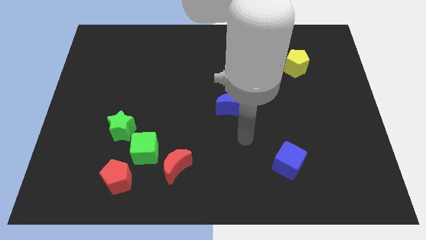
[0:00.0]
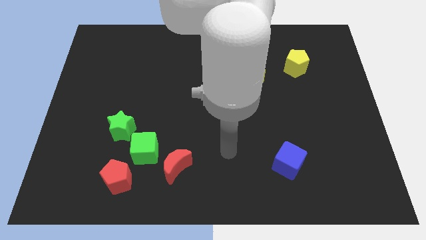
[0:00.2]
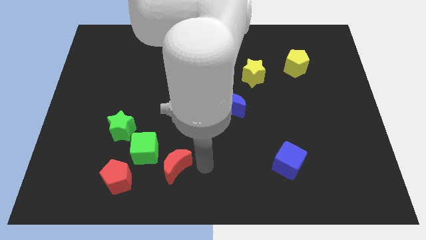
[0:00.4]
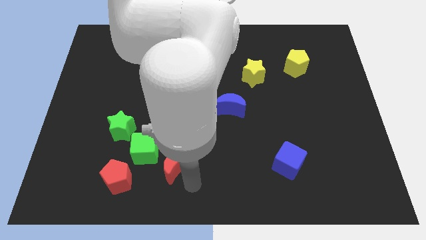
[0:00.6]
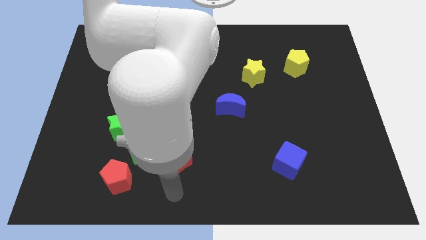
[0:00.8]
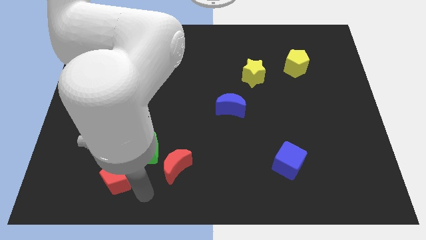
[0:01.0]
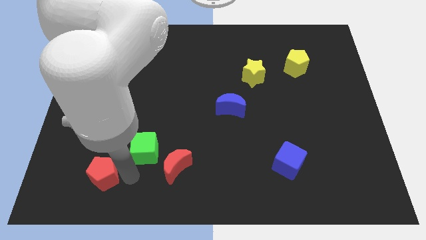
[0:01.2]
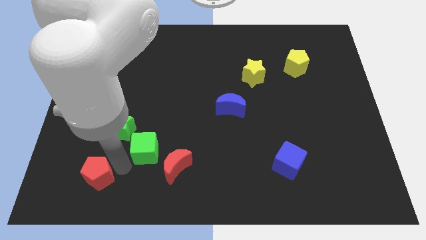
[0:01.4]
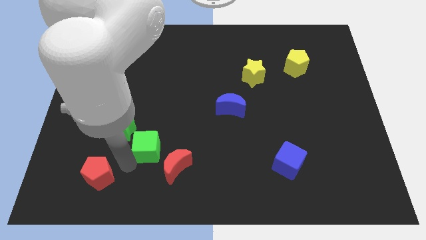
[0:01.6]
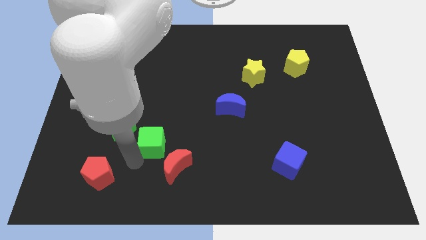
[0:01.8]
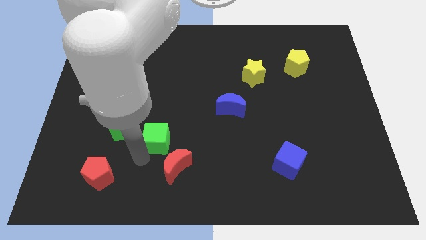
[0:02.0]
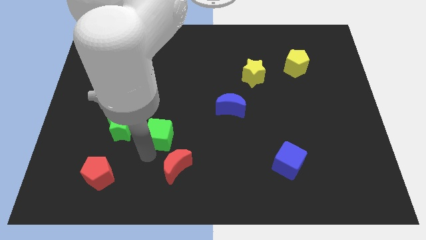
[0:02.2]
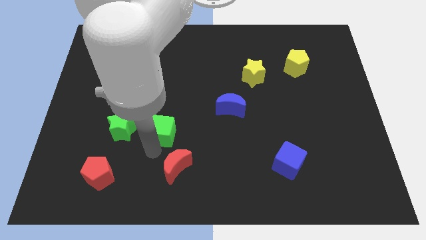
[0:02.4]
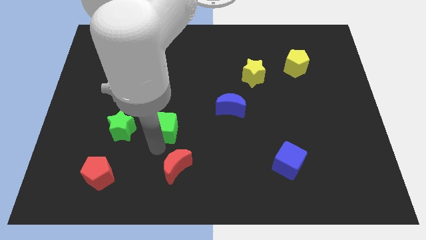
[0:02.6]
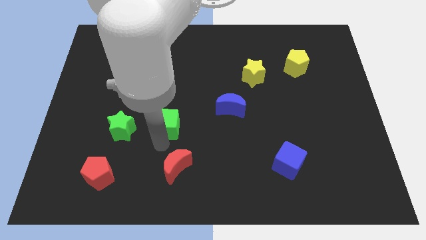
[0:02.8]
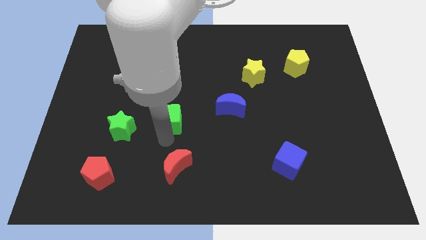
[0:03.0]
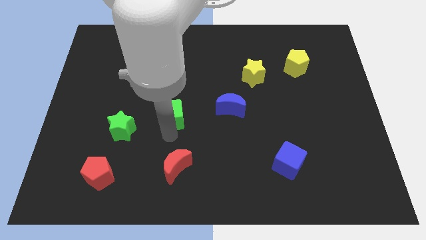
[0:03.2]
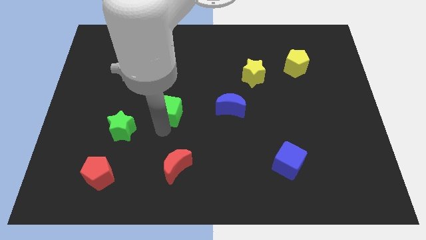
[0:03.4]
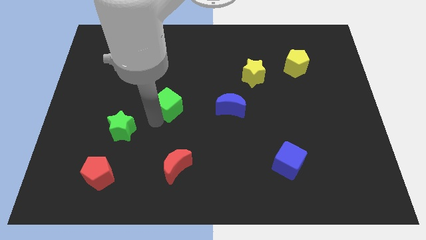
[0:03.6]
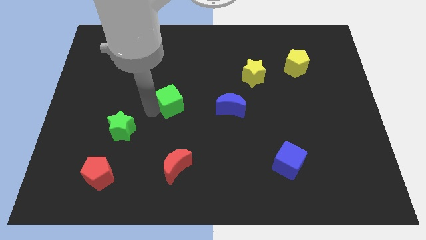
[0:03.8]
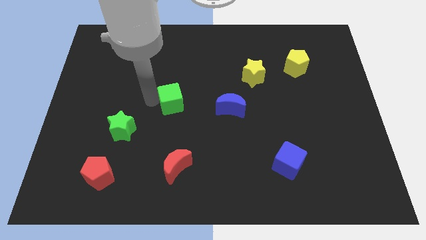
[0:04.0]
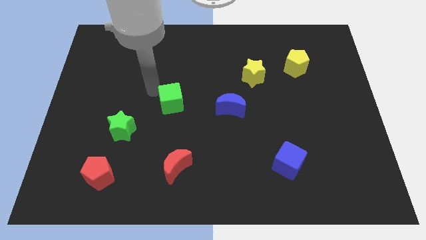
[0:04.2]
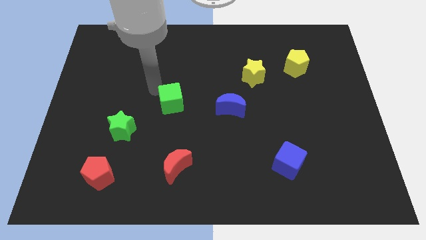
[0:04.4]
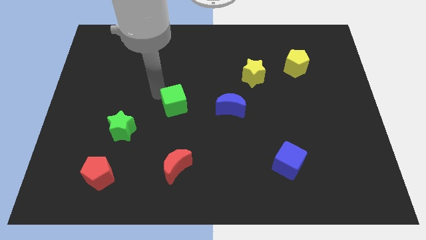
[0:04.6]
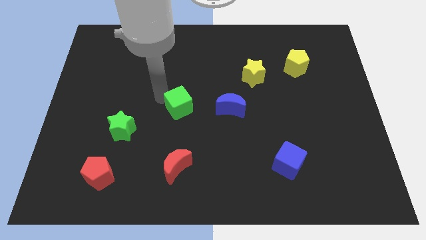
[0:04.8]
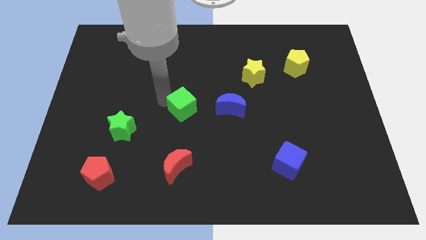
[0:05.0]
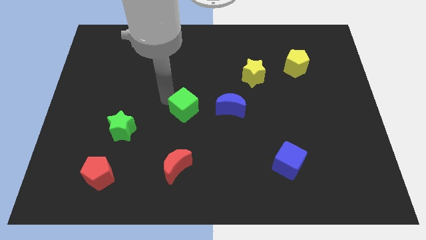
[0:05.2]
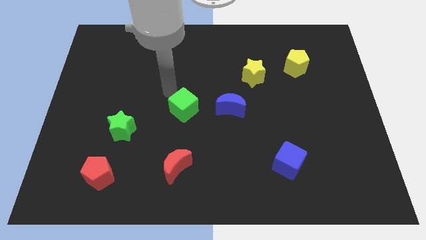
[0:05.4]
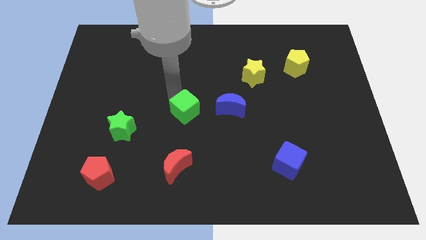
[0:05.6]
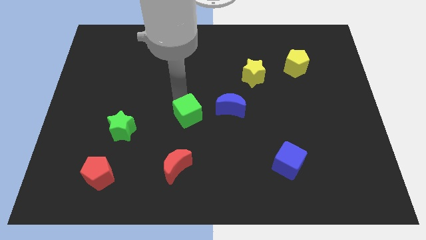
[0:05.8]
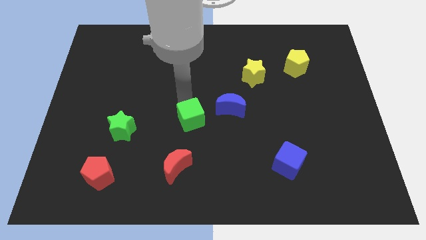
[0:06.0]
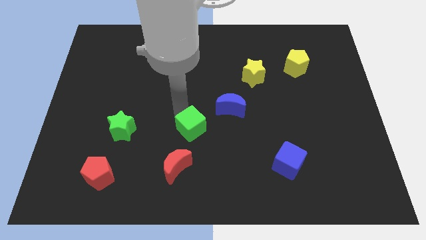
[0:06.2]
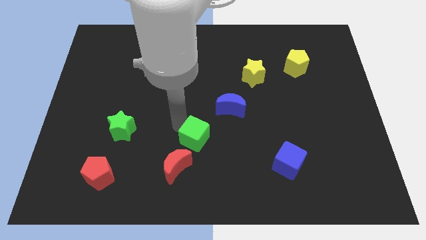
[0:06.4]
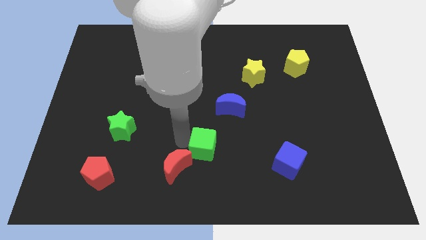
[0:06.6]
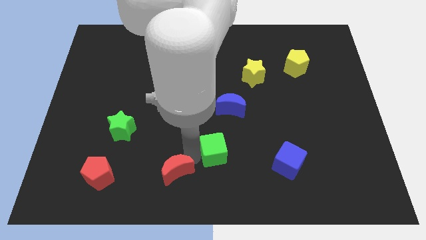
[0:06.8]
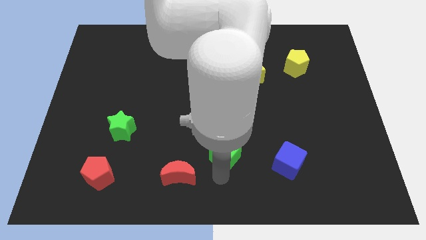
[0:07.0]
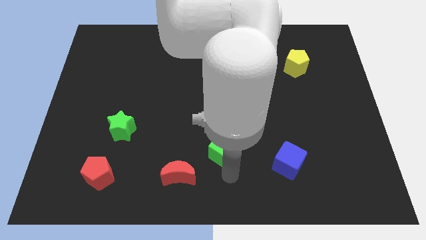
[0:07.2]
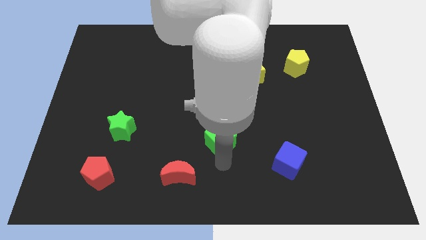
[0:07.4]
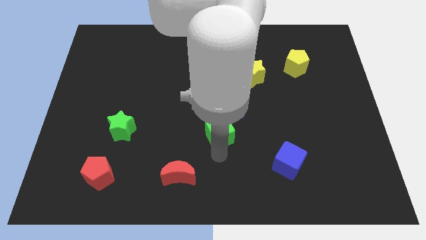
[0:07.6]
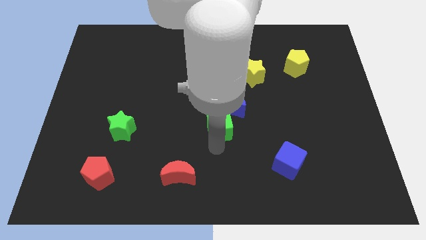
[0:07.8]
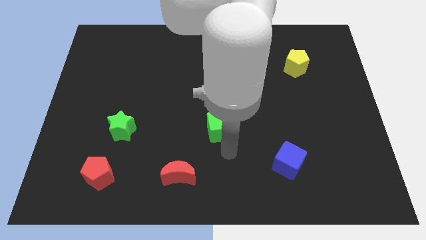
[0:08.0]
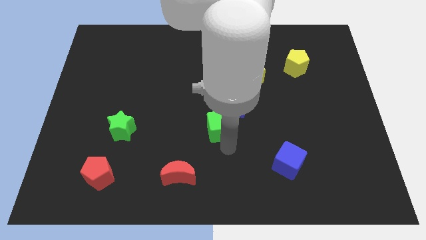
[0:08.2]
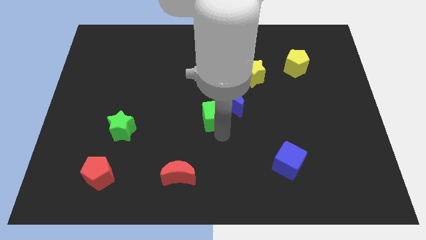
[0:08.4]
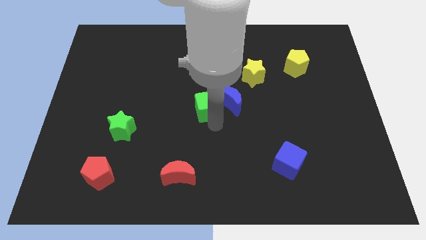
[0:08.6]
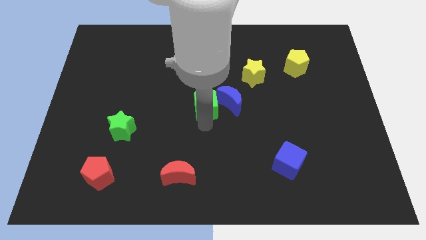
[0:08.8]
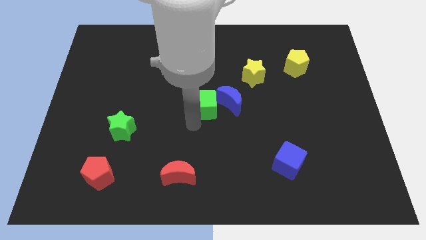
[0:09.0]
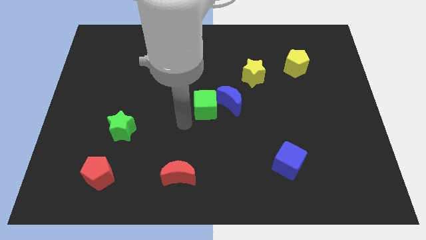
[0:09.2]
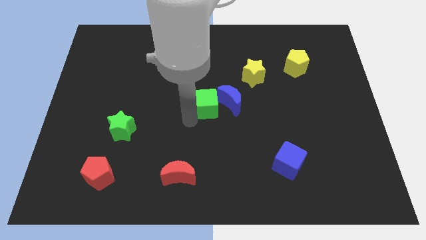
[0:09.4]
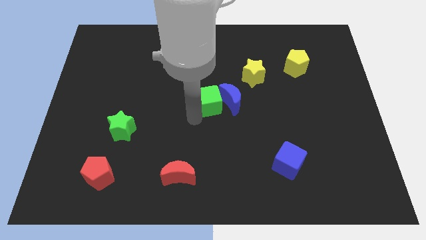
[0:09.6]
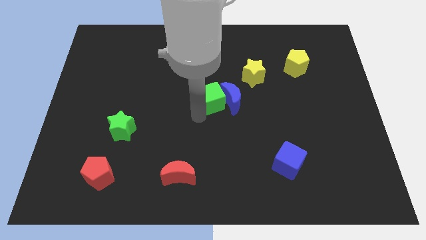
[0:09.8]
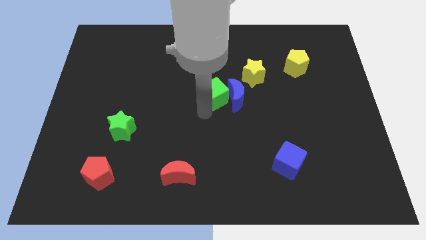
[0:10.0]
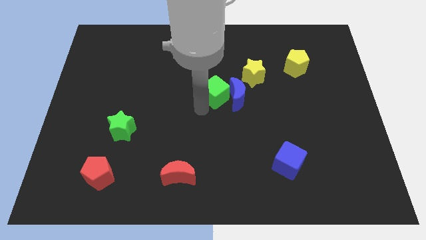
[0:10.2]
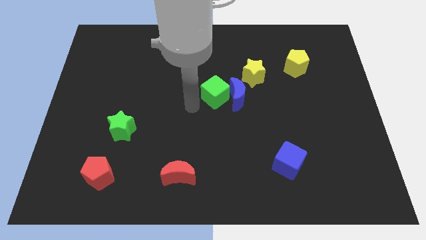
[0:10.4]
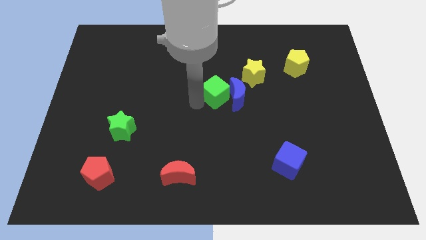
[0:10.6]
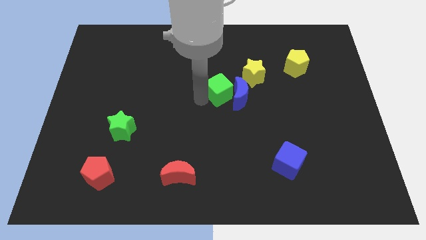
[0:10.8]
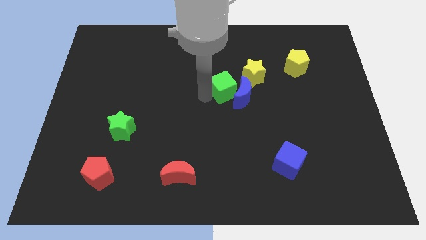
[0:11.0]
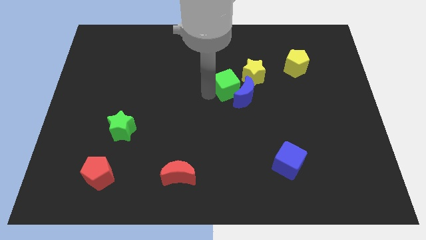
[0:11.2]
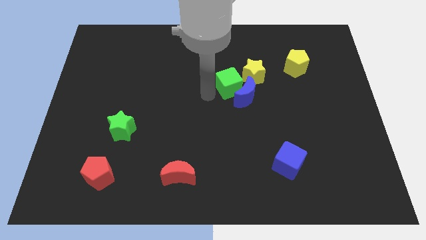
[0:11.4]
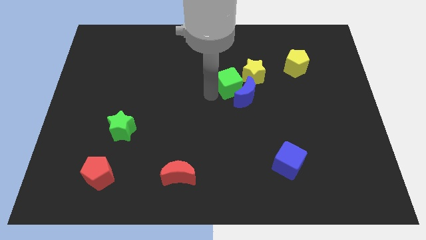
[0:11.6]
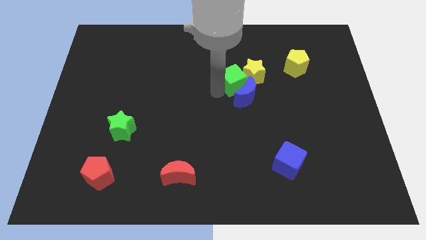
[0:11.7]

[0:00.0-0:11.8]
put the green cube next to the yellow star

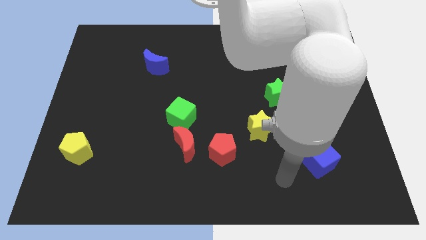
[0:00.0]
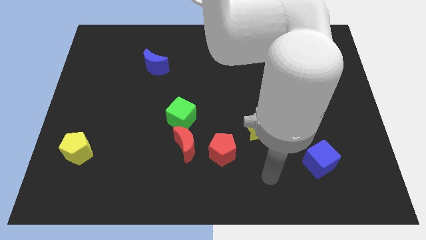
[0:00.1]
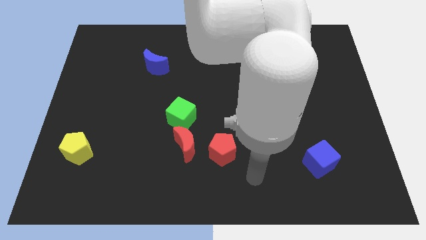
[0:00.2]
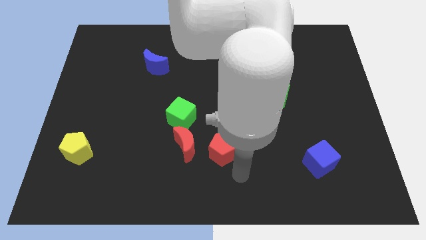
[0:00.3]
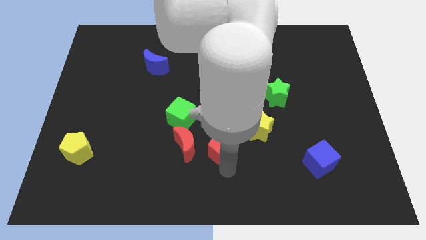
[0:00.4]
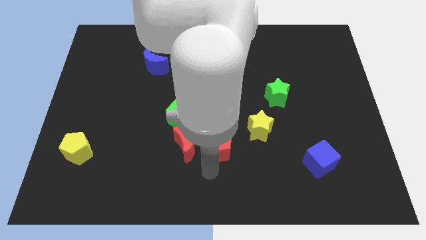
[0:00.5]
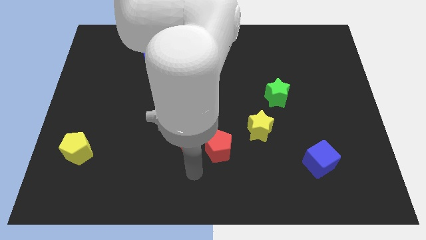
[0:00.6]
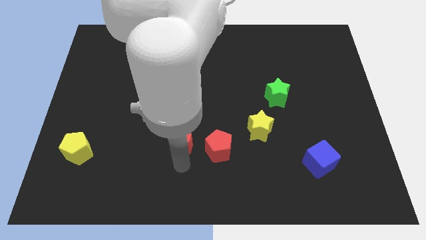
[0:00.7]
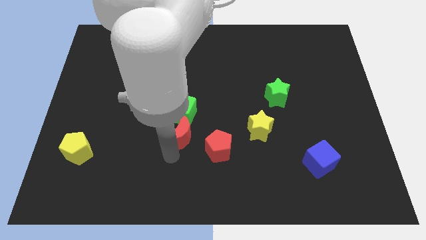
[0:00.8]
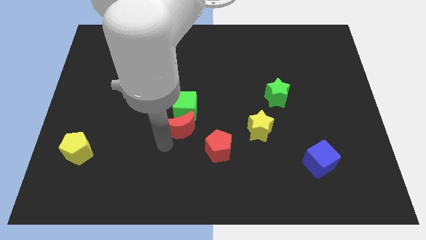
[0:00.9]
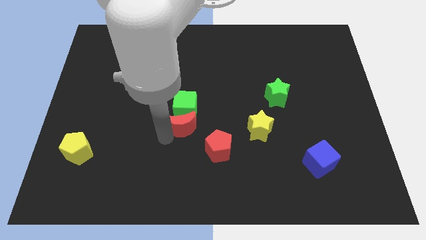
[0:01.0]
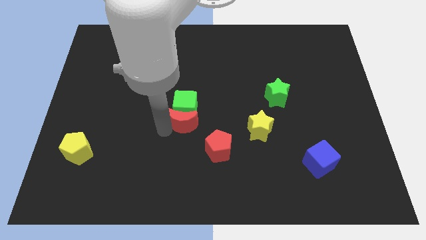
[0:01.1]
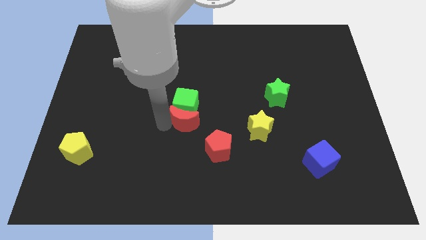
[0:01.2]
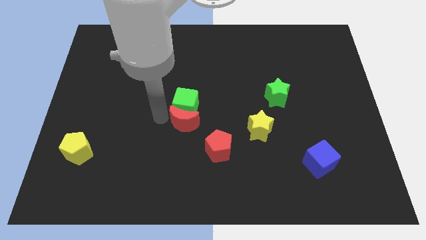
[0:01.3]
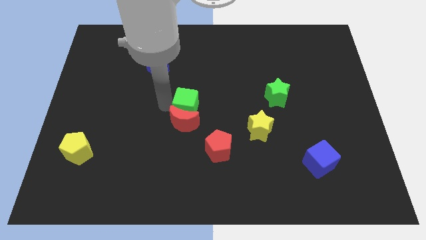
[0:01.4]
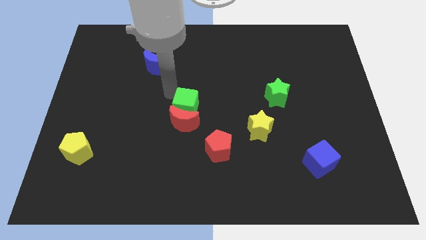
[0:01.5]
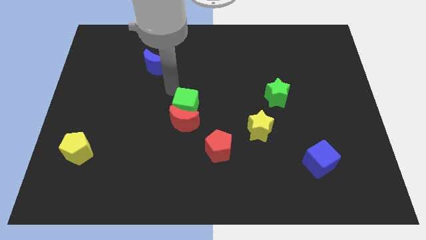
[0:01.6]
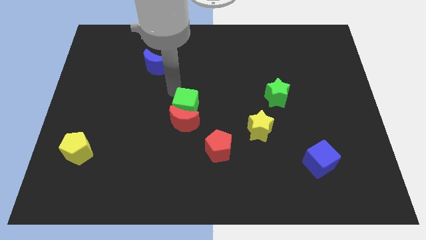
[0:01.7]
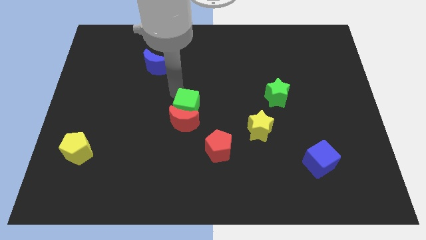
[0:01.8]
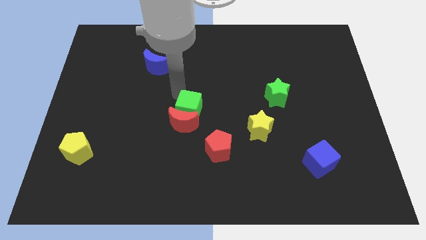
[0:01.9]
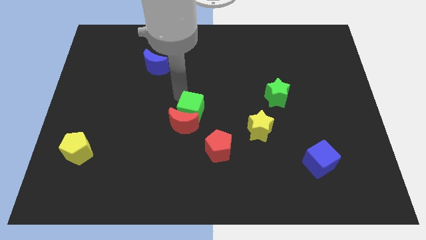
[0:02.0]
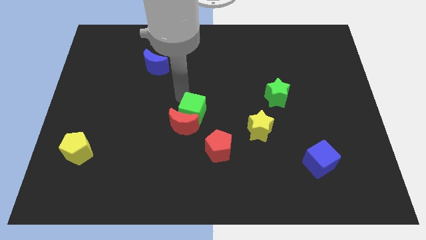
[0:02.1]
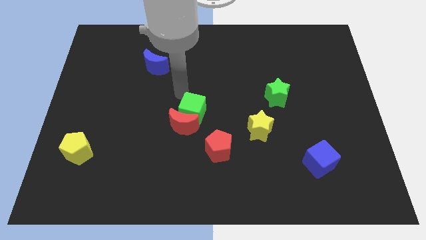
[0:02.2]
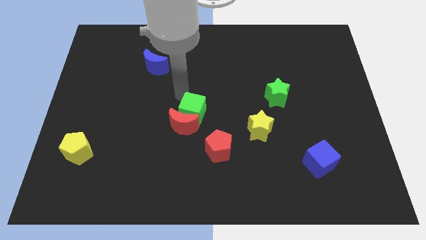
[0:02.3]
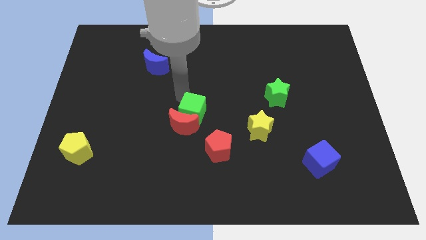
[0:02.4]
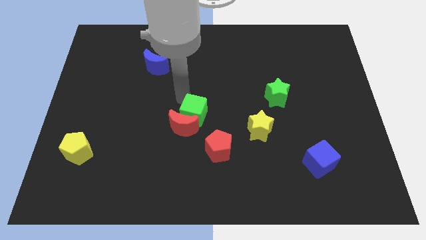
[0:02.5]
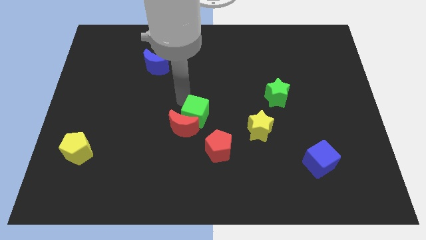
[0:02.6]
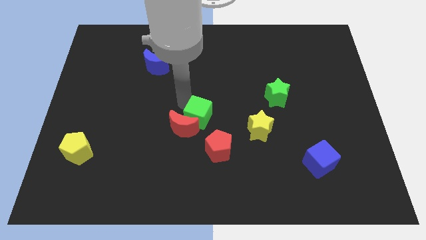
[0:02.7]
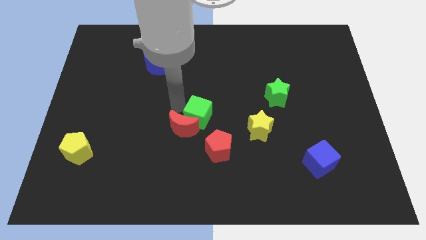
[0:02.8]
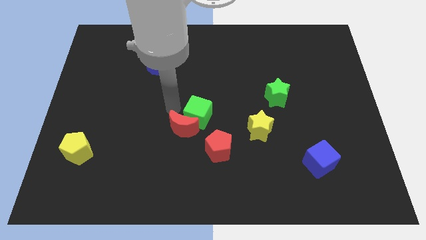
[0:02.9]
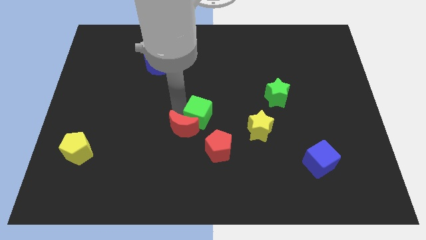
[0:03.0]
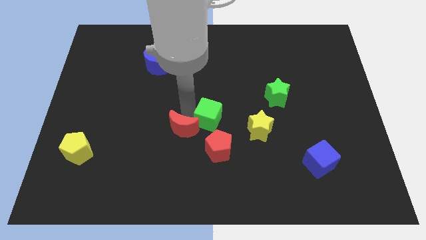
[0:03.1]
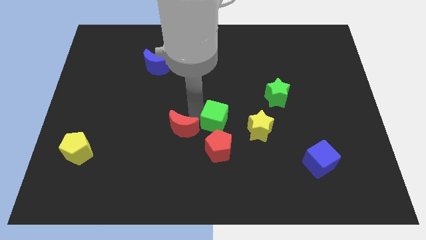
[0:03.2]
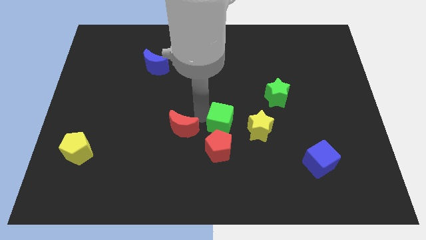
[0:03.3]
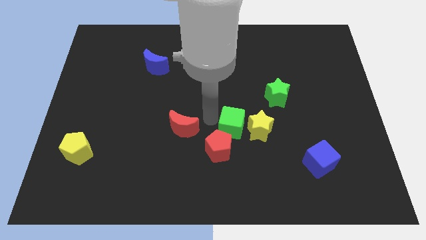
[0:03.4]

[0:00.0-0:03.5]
move the green cube next to the yellow star
